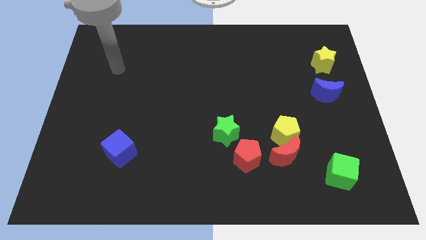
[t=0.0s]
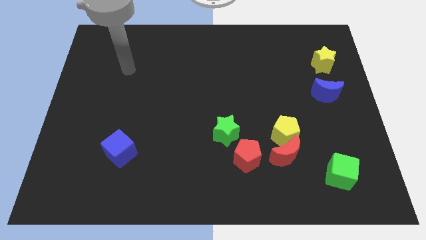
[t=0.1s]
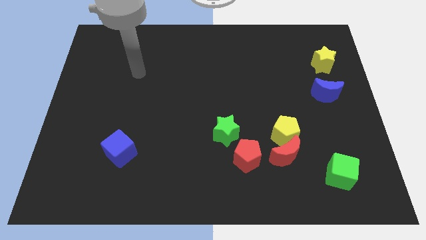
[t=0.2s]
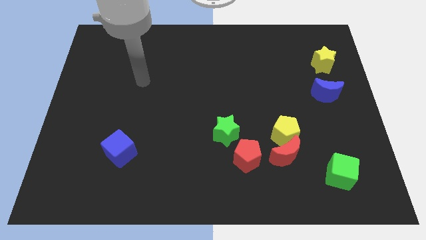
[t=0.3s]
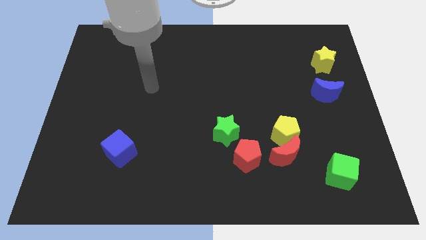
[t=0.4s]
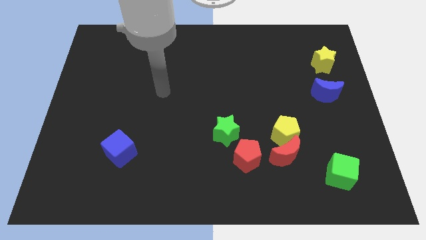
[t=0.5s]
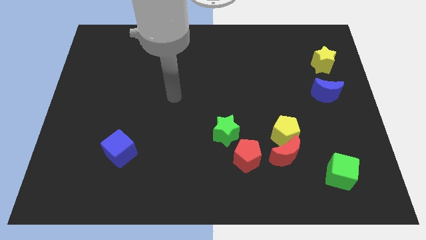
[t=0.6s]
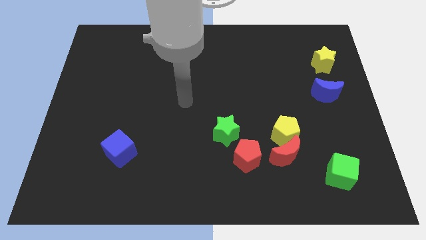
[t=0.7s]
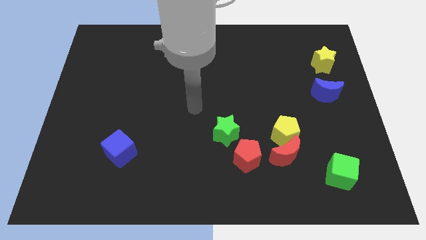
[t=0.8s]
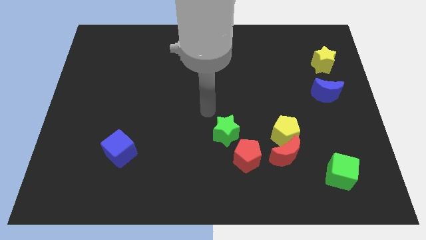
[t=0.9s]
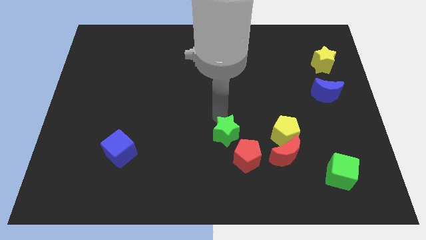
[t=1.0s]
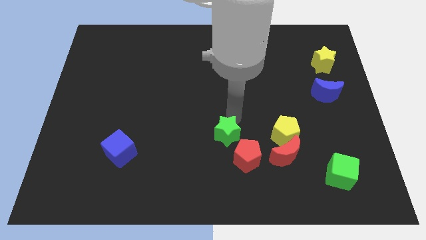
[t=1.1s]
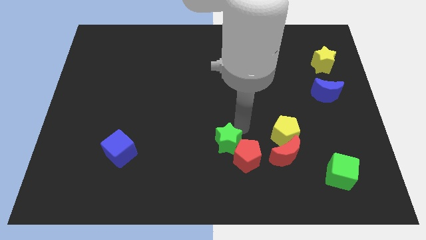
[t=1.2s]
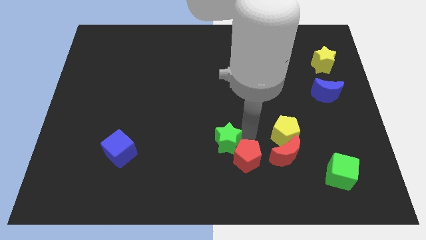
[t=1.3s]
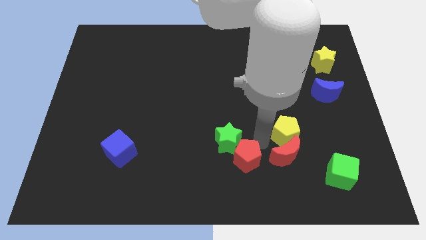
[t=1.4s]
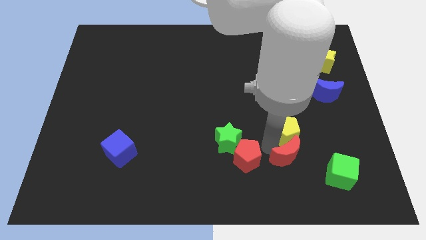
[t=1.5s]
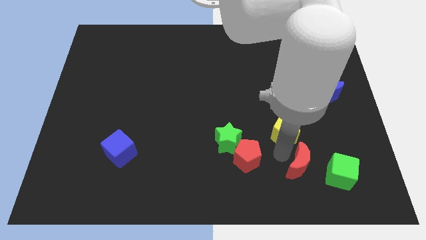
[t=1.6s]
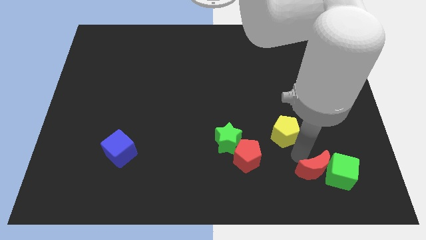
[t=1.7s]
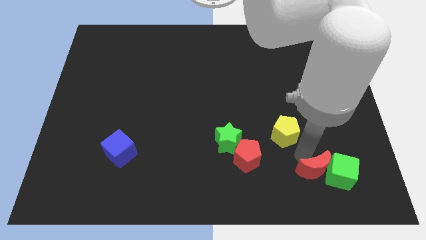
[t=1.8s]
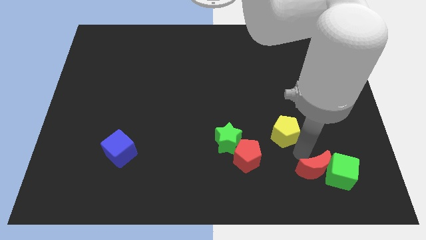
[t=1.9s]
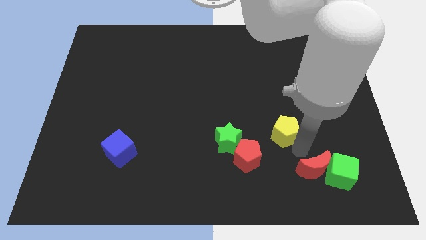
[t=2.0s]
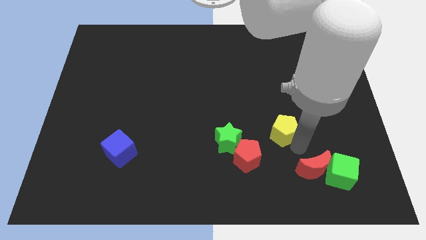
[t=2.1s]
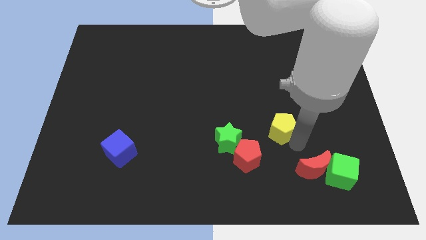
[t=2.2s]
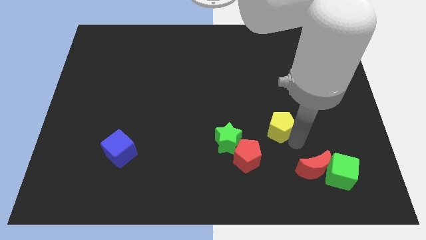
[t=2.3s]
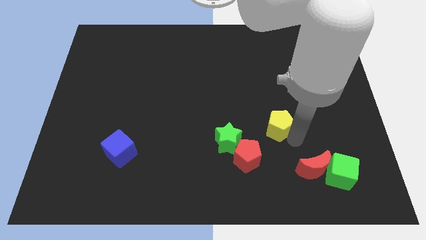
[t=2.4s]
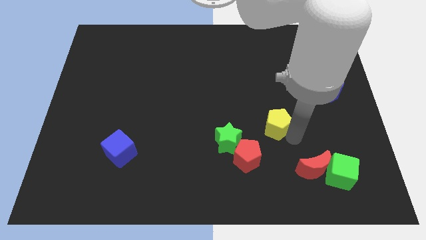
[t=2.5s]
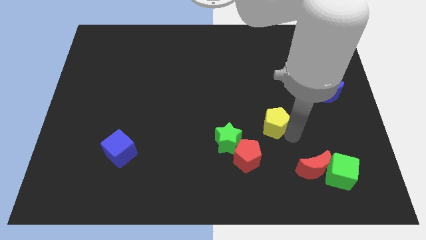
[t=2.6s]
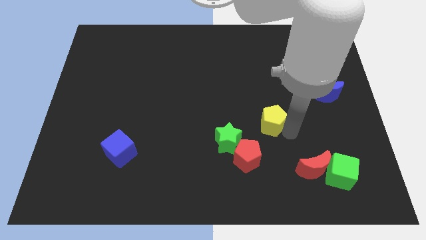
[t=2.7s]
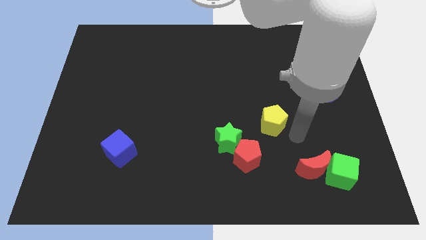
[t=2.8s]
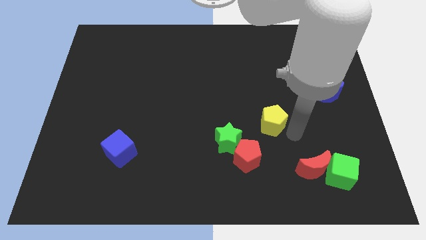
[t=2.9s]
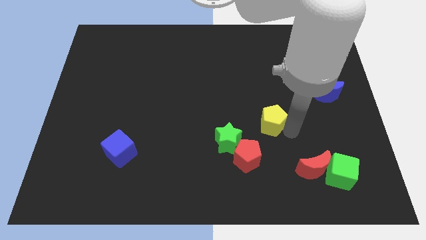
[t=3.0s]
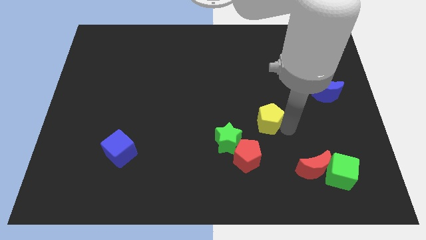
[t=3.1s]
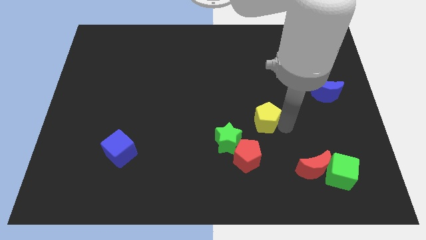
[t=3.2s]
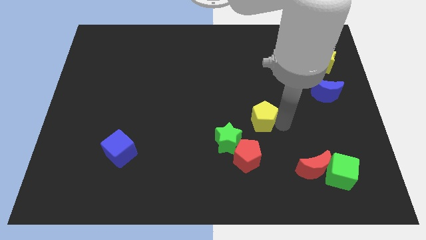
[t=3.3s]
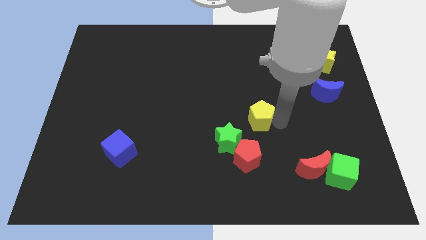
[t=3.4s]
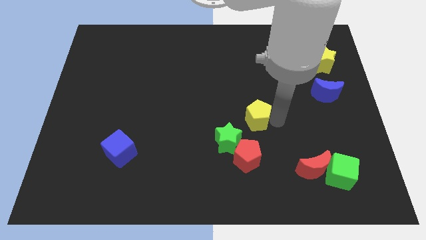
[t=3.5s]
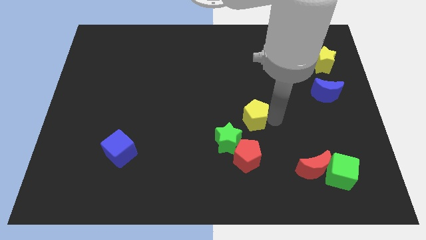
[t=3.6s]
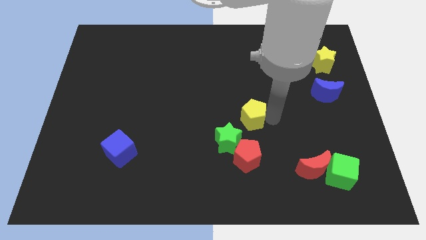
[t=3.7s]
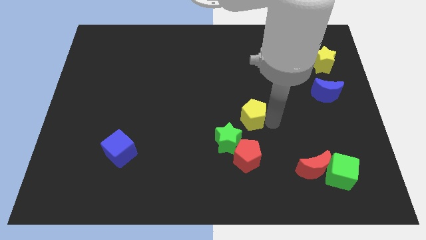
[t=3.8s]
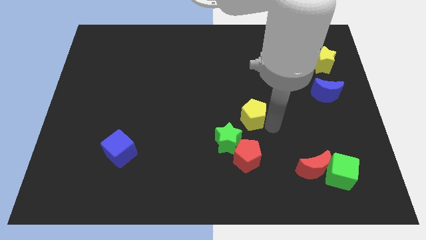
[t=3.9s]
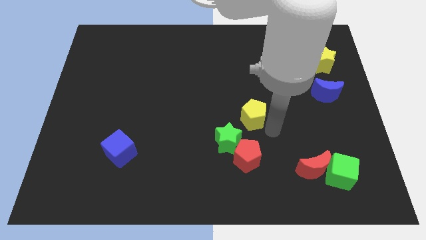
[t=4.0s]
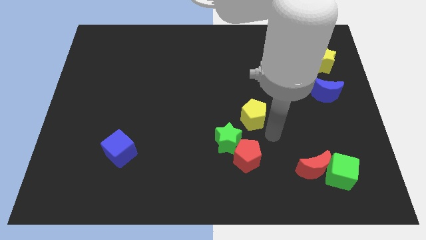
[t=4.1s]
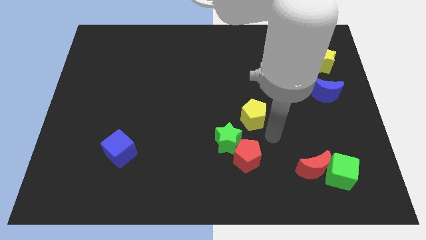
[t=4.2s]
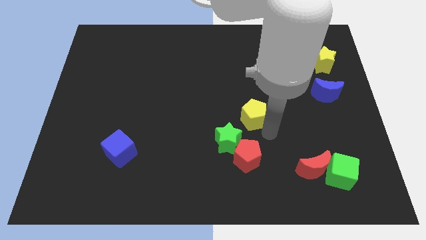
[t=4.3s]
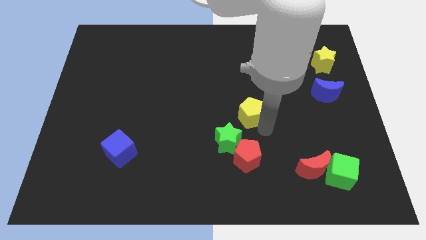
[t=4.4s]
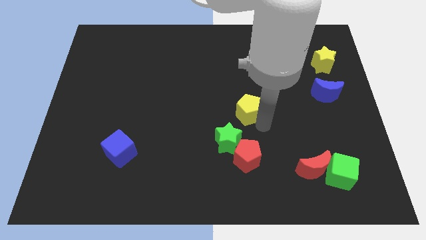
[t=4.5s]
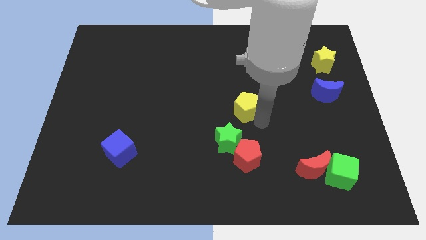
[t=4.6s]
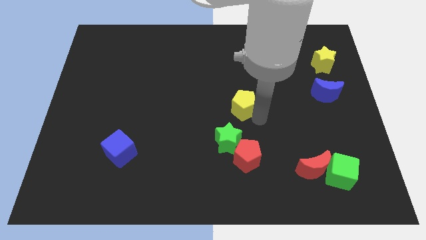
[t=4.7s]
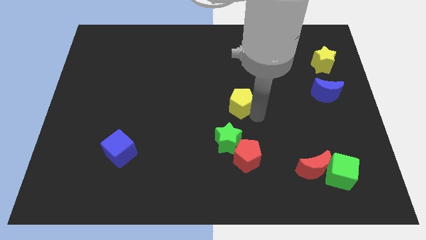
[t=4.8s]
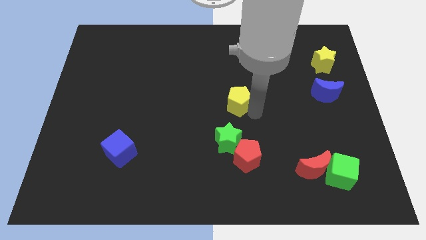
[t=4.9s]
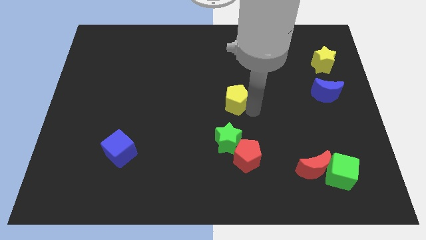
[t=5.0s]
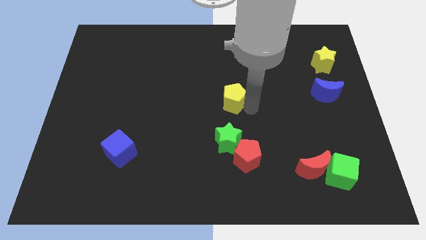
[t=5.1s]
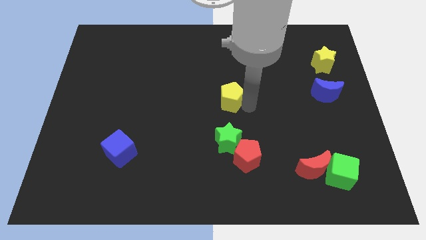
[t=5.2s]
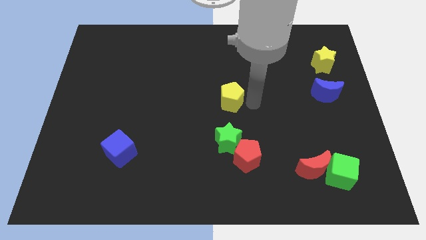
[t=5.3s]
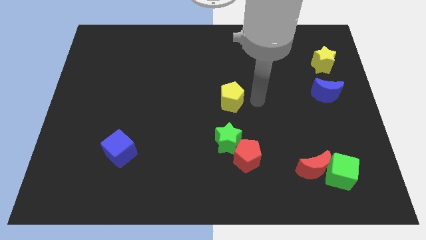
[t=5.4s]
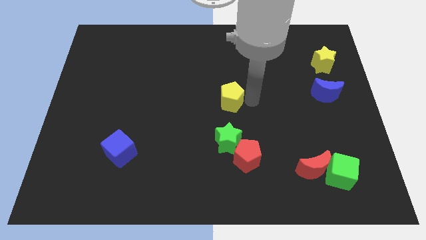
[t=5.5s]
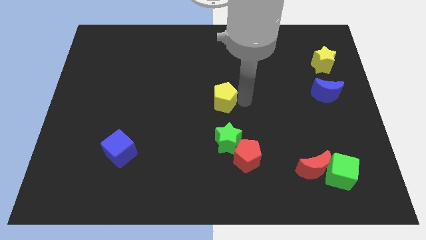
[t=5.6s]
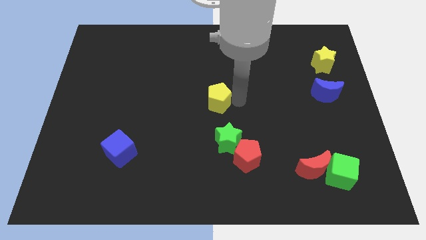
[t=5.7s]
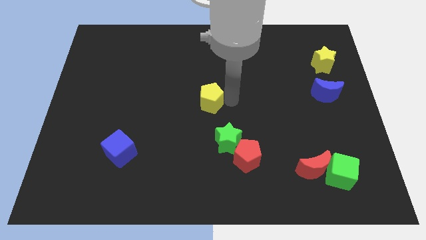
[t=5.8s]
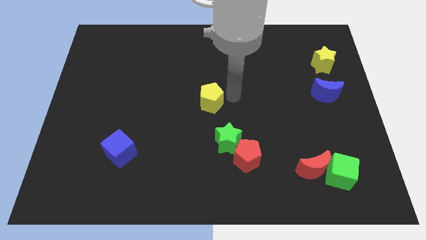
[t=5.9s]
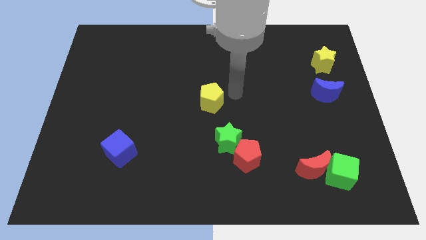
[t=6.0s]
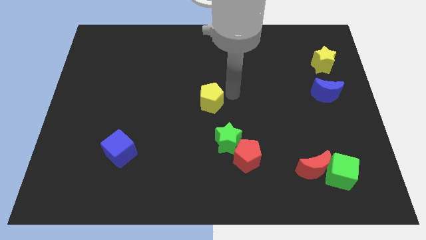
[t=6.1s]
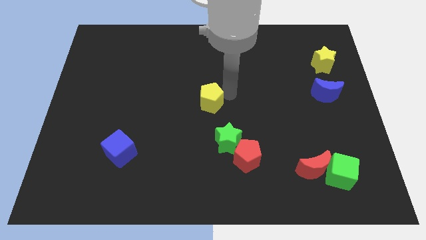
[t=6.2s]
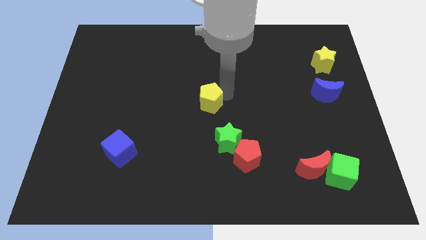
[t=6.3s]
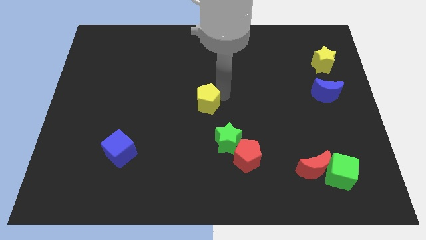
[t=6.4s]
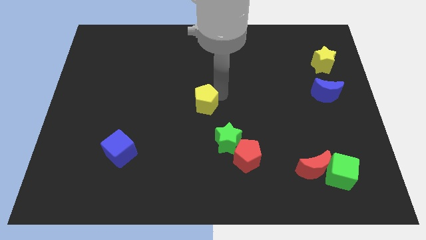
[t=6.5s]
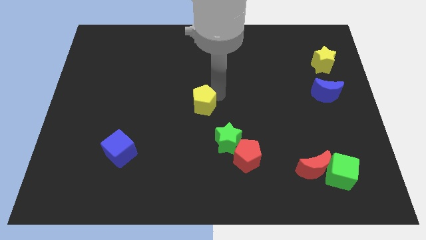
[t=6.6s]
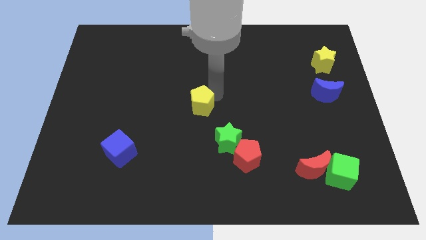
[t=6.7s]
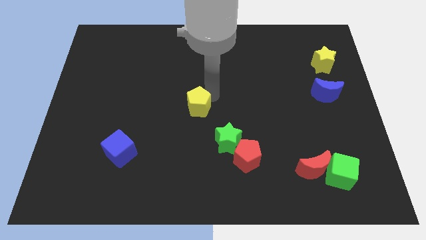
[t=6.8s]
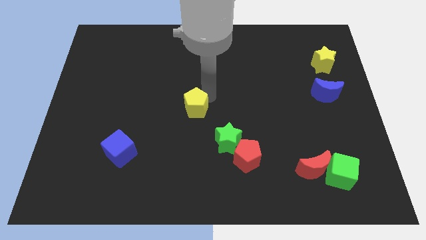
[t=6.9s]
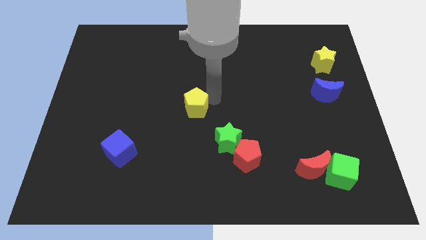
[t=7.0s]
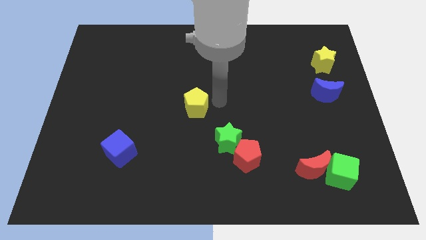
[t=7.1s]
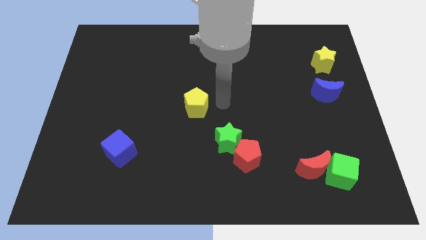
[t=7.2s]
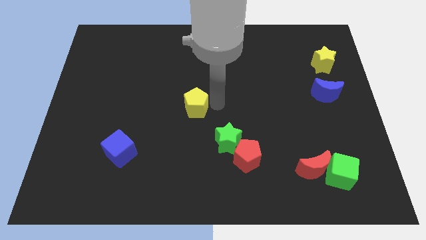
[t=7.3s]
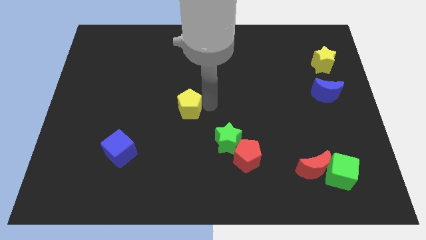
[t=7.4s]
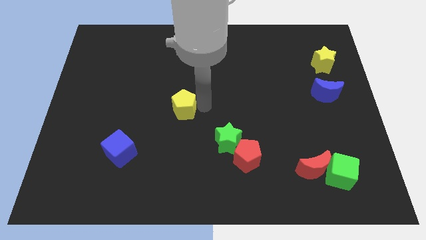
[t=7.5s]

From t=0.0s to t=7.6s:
move the yellow pentagon to the left
